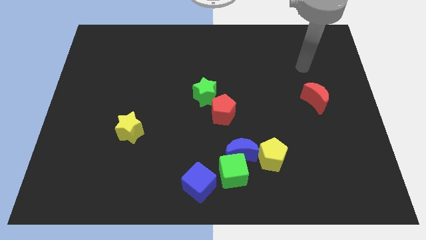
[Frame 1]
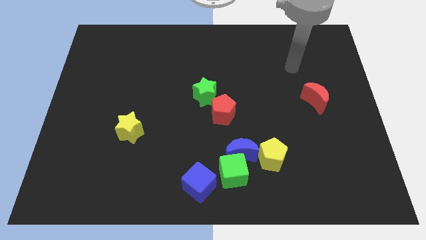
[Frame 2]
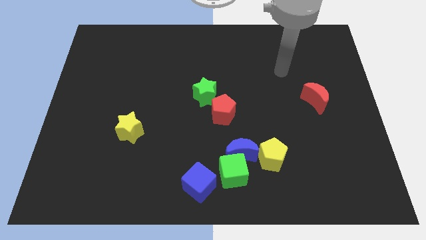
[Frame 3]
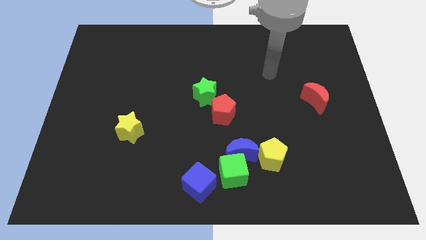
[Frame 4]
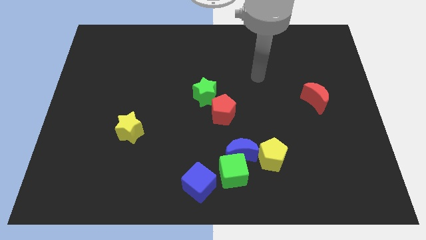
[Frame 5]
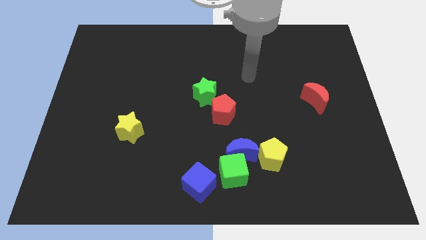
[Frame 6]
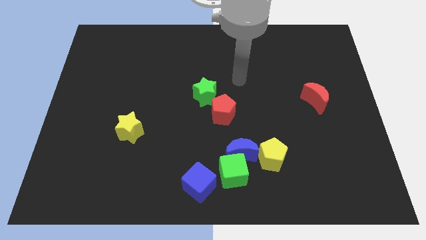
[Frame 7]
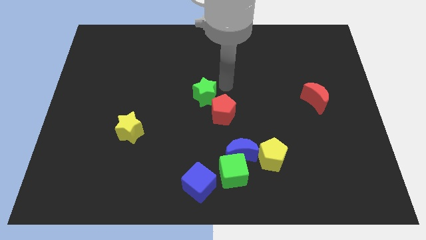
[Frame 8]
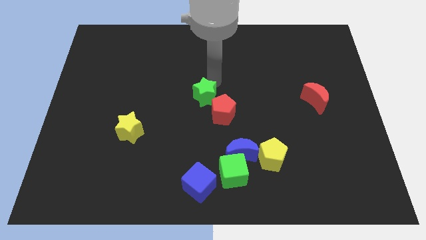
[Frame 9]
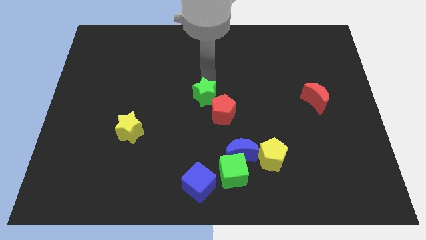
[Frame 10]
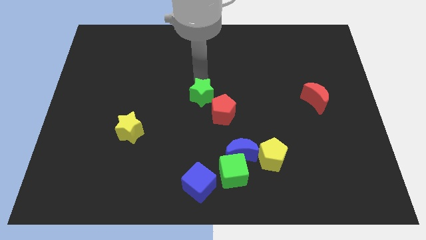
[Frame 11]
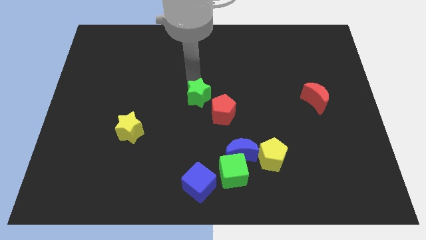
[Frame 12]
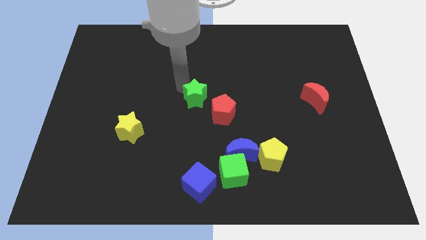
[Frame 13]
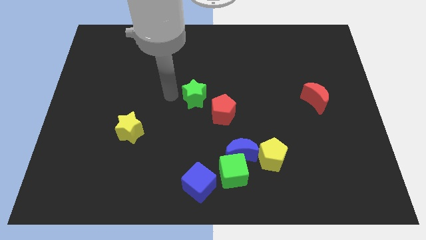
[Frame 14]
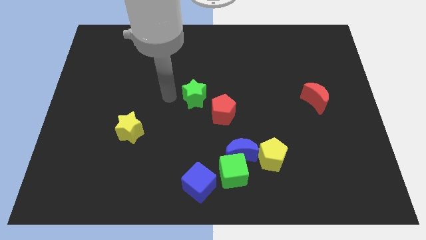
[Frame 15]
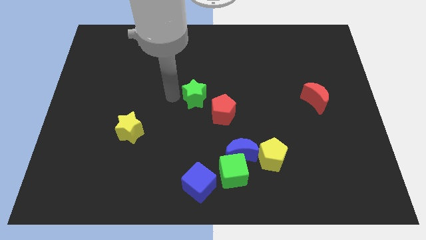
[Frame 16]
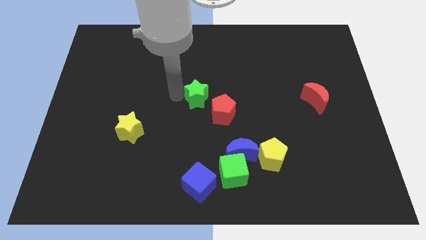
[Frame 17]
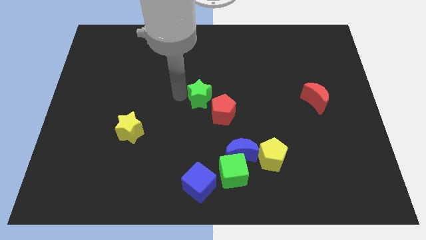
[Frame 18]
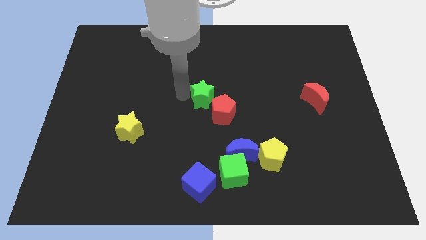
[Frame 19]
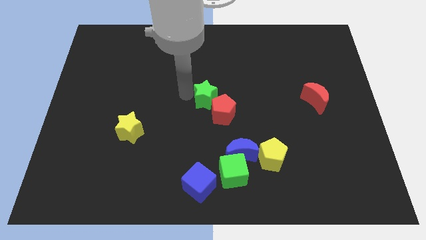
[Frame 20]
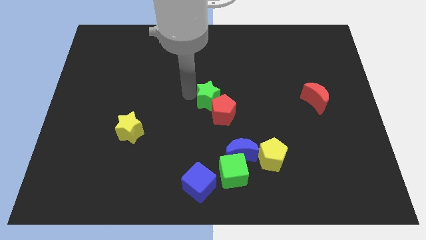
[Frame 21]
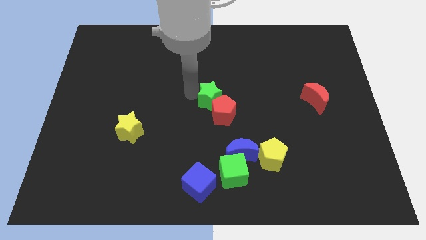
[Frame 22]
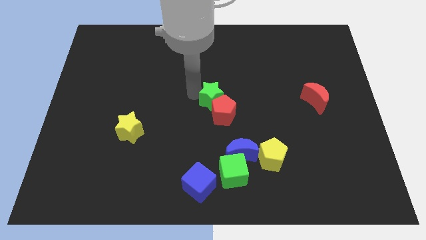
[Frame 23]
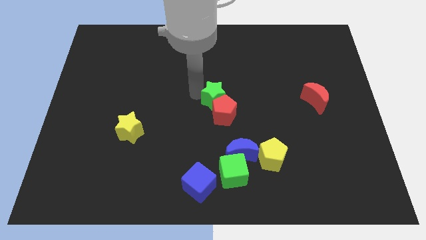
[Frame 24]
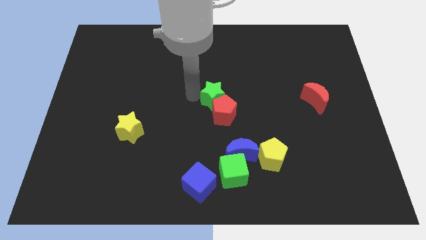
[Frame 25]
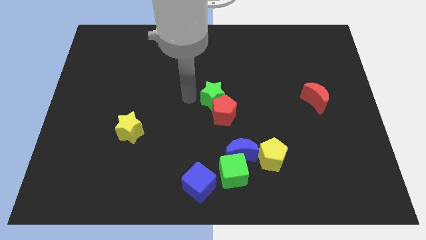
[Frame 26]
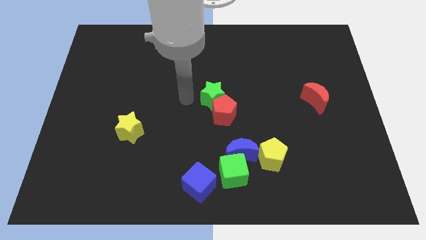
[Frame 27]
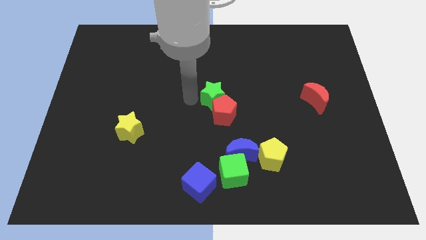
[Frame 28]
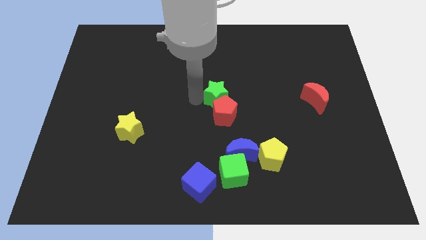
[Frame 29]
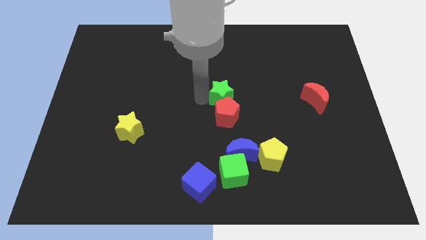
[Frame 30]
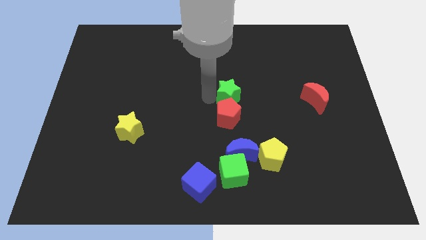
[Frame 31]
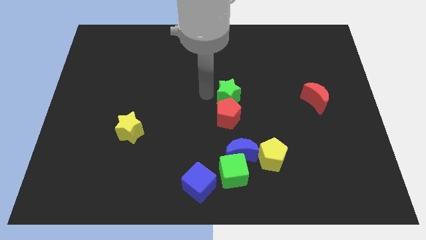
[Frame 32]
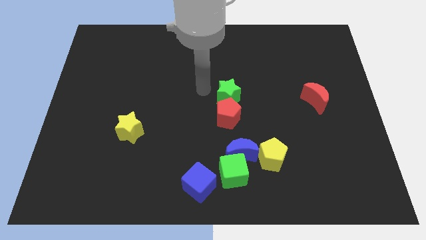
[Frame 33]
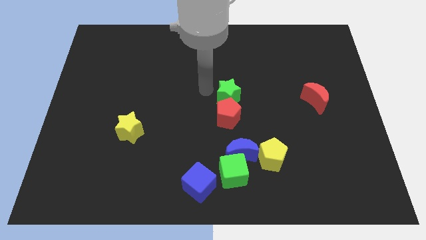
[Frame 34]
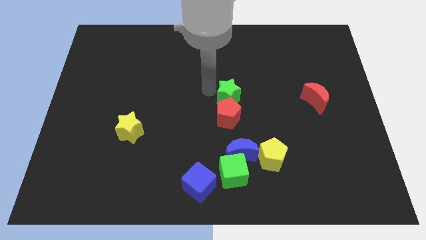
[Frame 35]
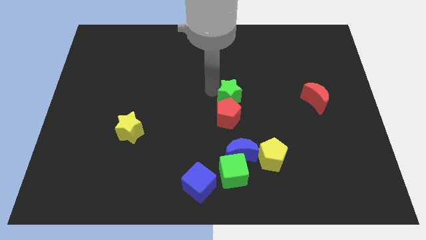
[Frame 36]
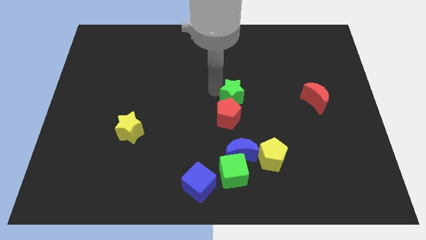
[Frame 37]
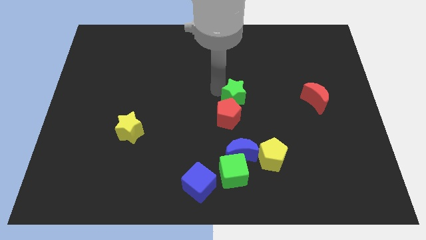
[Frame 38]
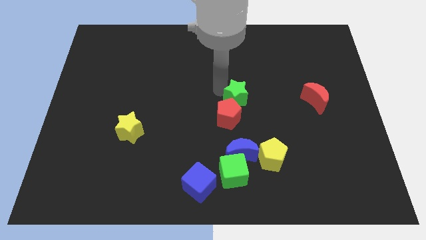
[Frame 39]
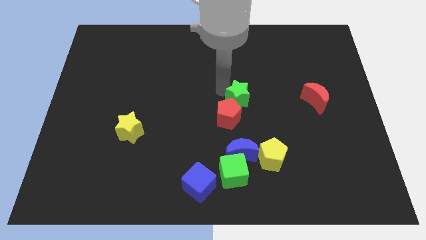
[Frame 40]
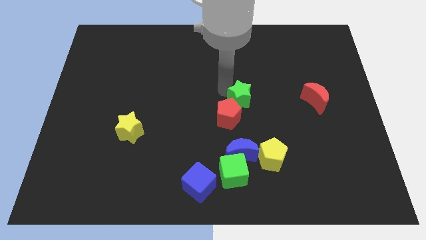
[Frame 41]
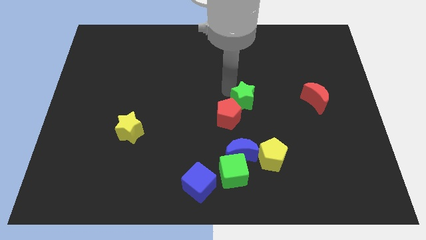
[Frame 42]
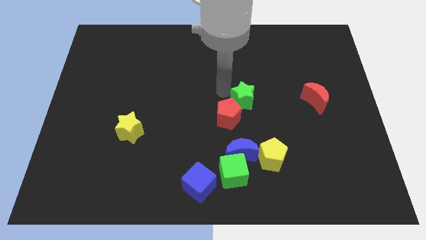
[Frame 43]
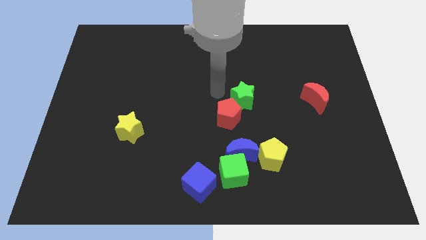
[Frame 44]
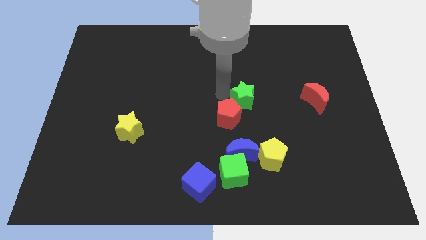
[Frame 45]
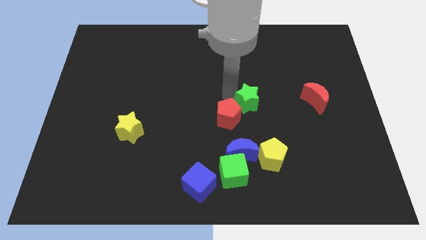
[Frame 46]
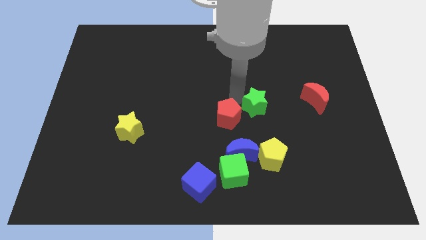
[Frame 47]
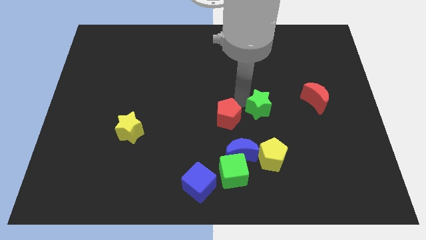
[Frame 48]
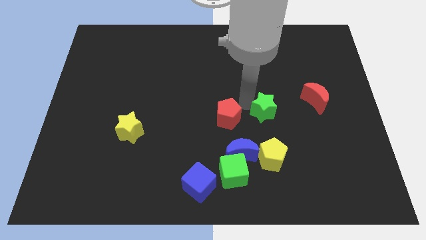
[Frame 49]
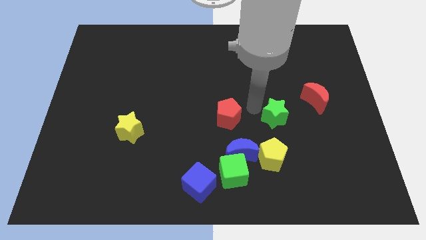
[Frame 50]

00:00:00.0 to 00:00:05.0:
slide the green star diagonally down and to the left of the red moon

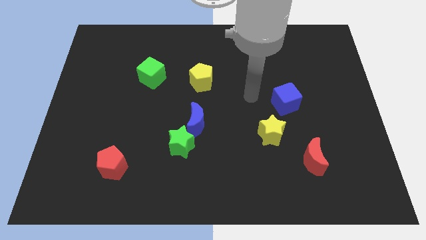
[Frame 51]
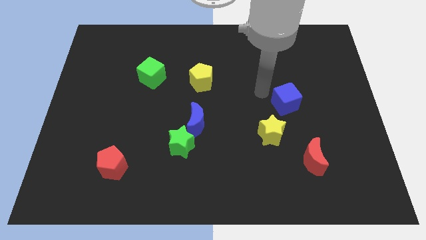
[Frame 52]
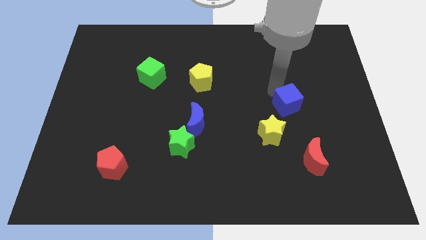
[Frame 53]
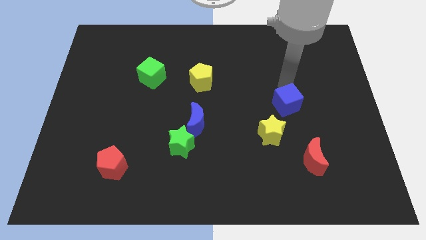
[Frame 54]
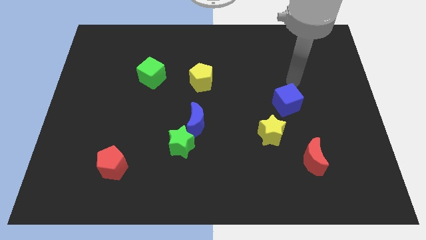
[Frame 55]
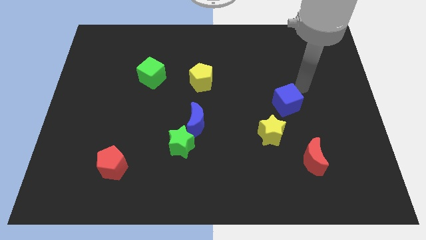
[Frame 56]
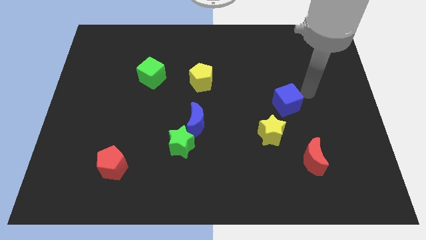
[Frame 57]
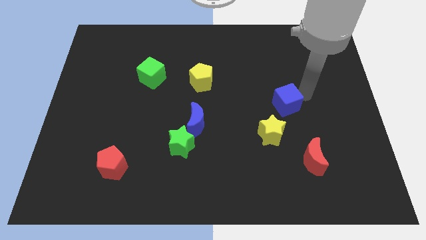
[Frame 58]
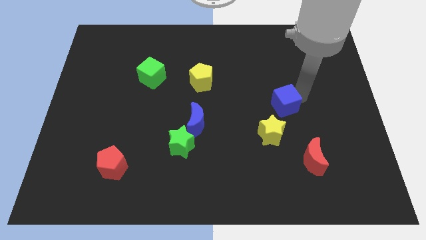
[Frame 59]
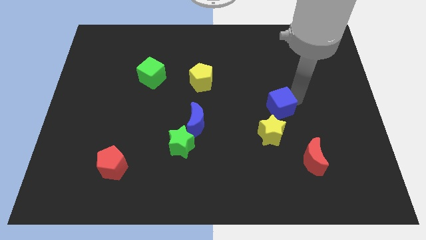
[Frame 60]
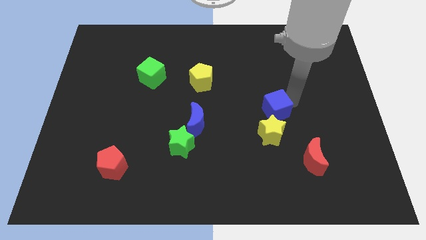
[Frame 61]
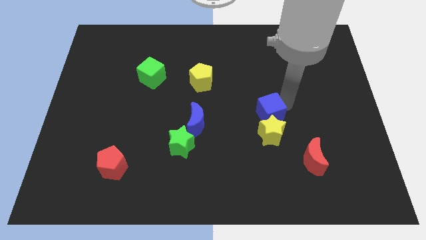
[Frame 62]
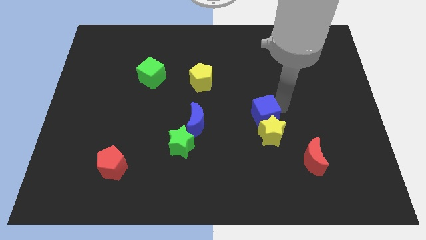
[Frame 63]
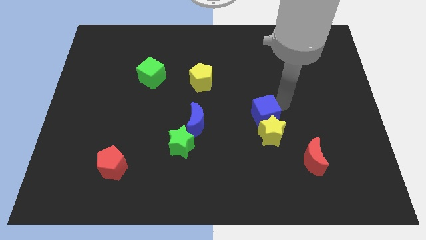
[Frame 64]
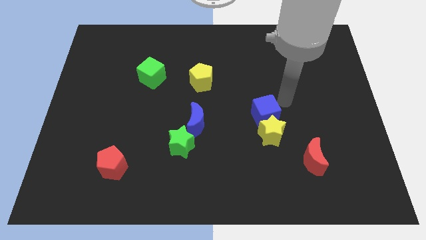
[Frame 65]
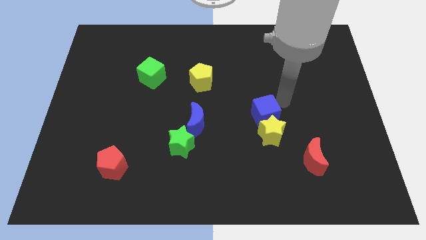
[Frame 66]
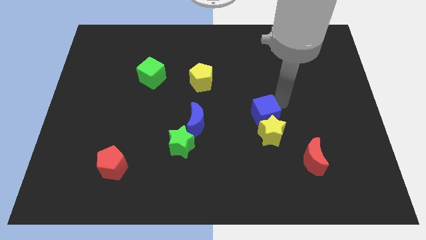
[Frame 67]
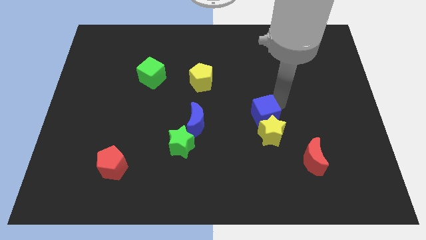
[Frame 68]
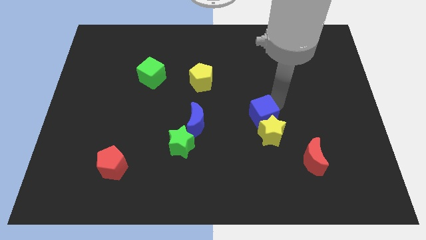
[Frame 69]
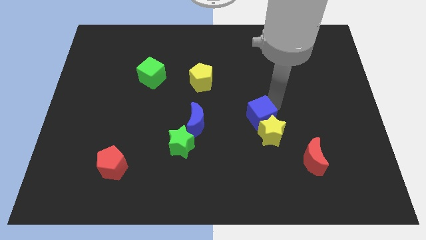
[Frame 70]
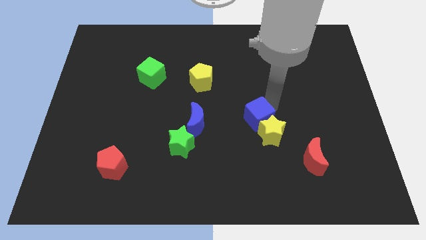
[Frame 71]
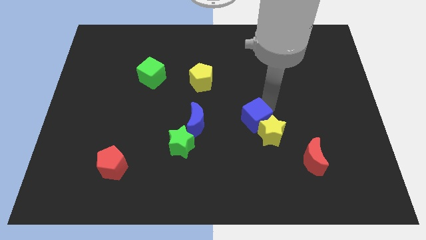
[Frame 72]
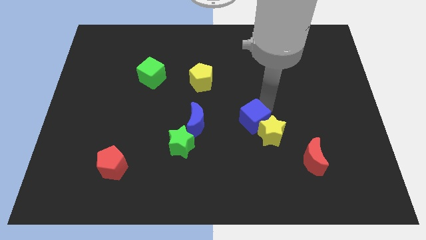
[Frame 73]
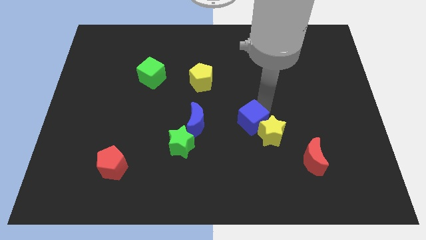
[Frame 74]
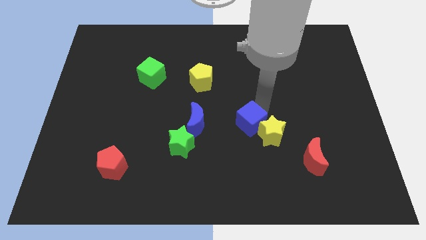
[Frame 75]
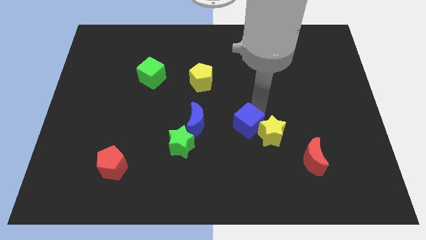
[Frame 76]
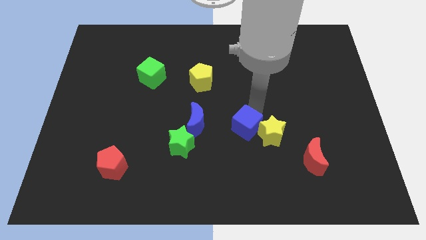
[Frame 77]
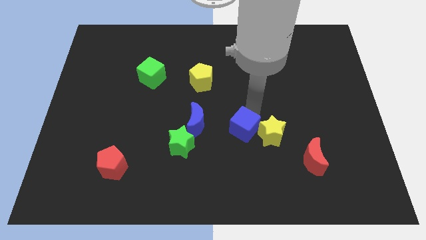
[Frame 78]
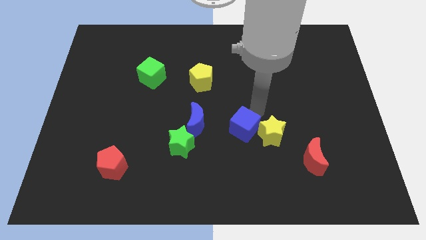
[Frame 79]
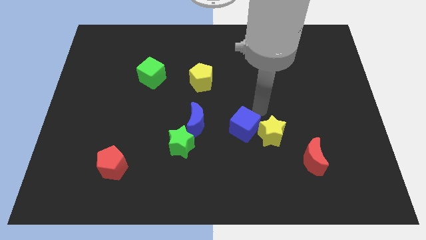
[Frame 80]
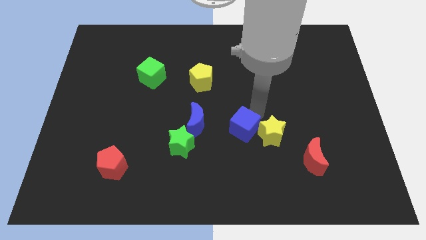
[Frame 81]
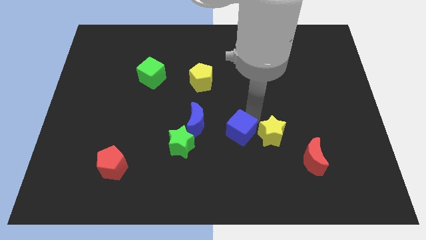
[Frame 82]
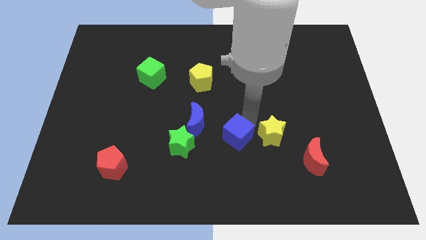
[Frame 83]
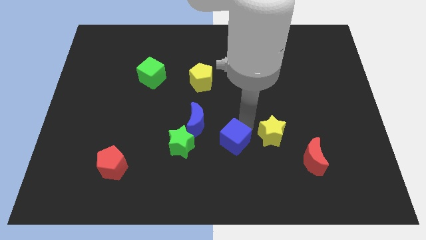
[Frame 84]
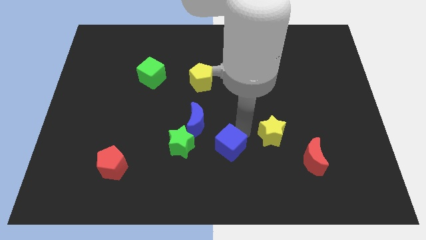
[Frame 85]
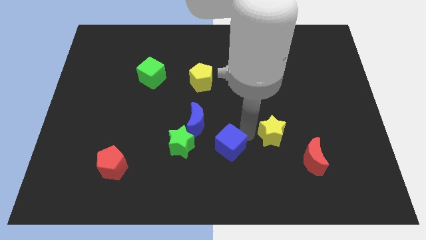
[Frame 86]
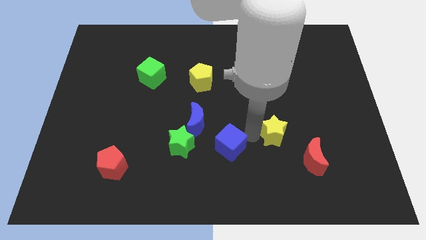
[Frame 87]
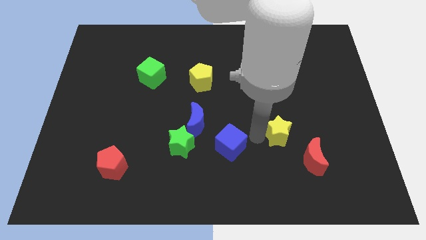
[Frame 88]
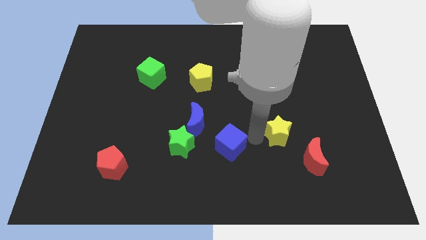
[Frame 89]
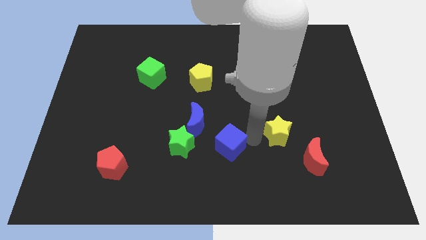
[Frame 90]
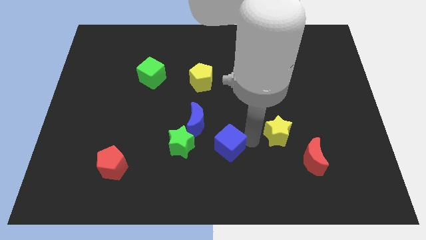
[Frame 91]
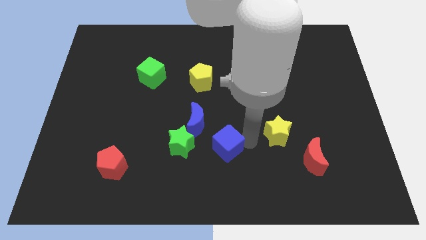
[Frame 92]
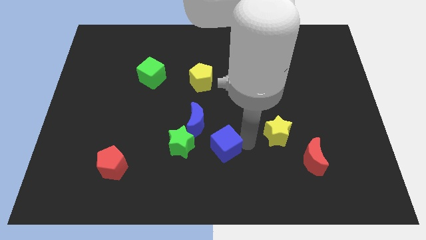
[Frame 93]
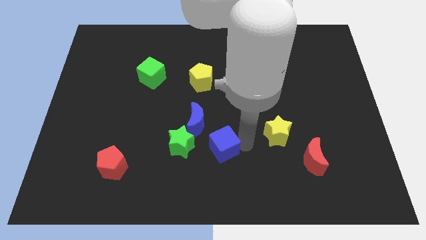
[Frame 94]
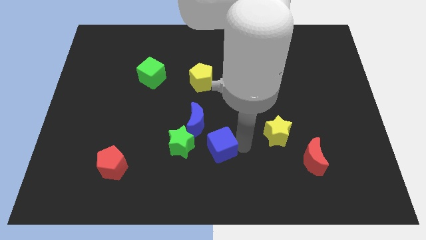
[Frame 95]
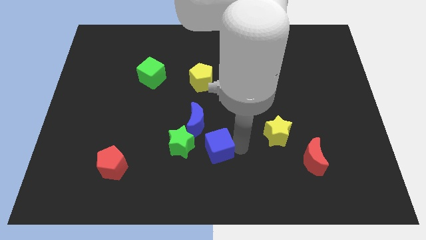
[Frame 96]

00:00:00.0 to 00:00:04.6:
slide the blue cube to the bottom of the blue moon
